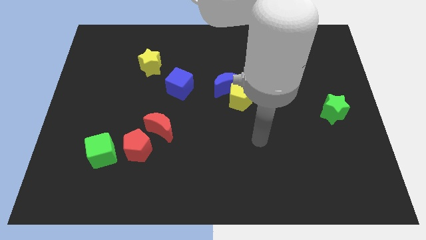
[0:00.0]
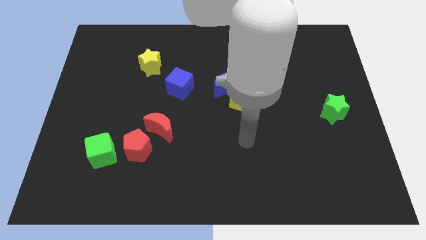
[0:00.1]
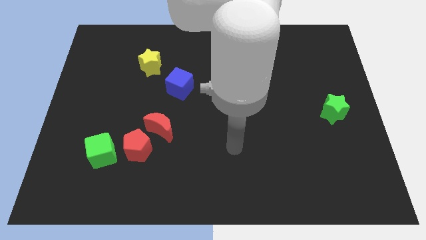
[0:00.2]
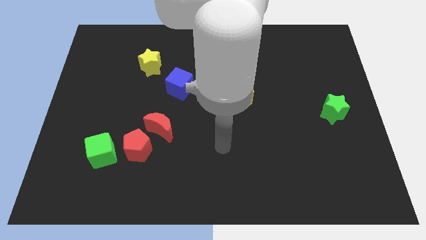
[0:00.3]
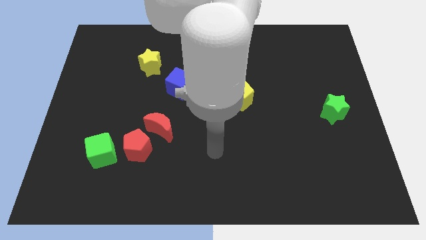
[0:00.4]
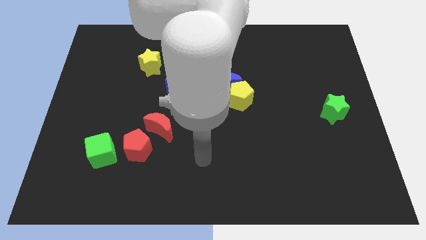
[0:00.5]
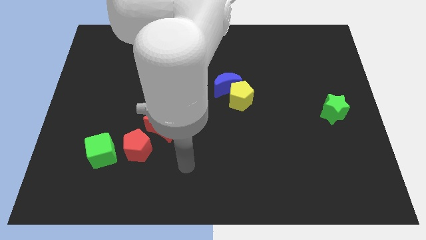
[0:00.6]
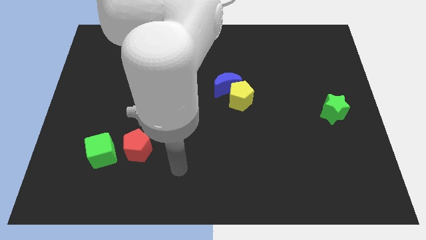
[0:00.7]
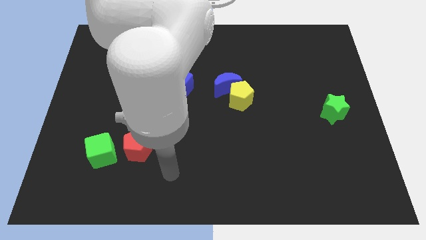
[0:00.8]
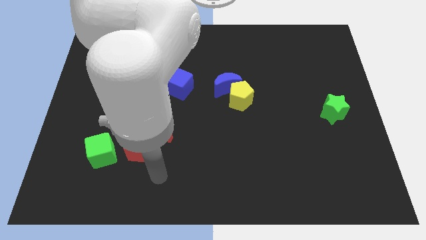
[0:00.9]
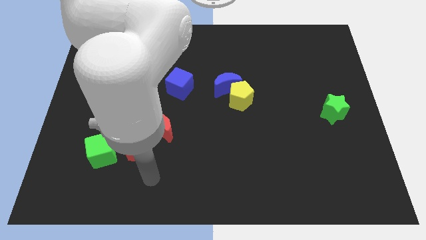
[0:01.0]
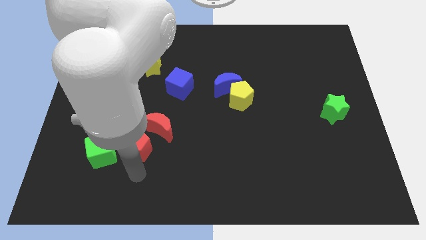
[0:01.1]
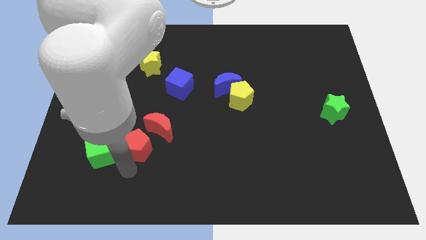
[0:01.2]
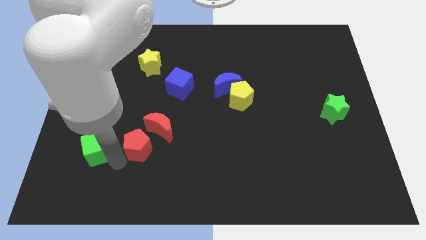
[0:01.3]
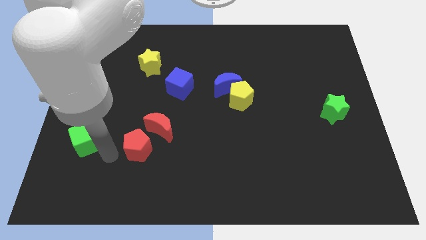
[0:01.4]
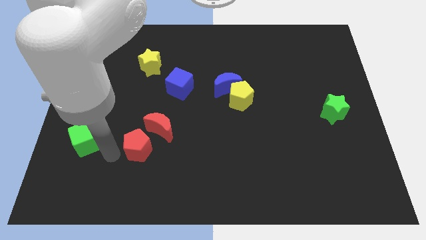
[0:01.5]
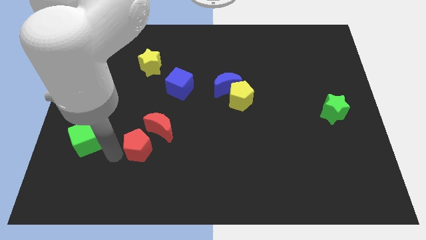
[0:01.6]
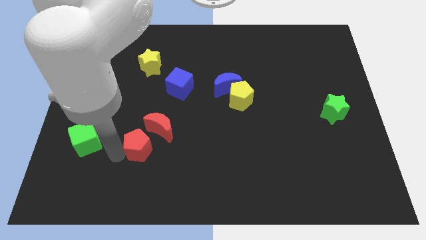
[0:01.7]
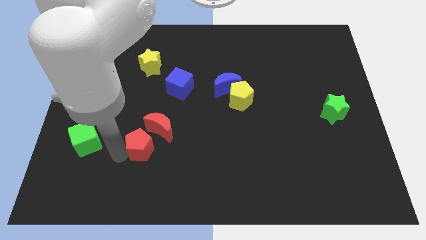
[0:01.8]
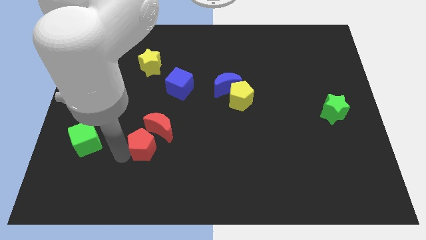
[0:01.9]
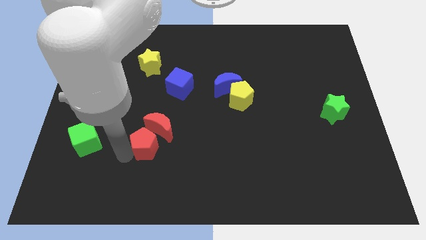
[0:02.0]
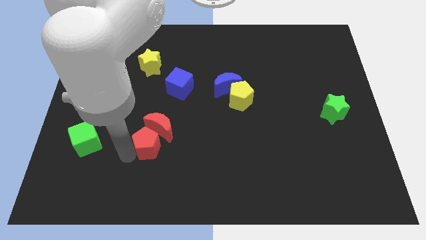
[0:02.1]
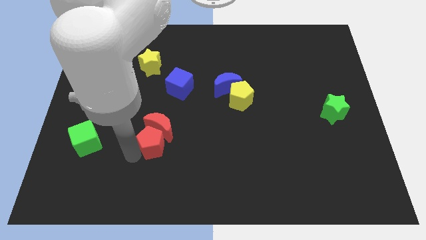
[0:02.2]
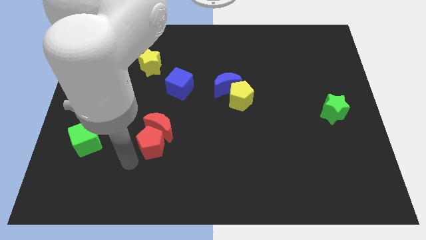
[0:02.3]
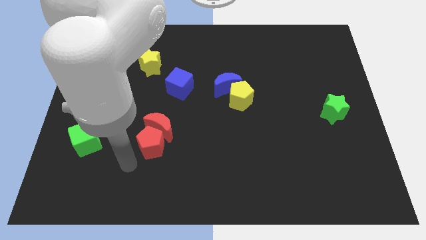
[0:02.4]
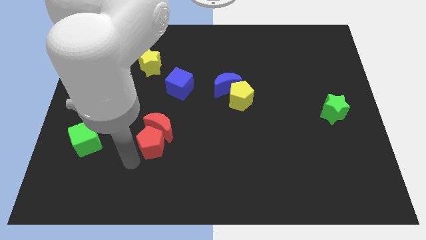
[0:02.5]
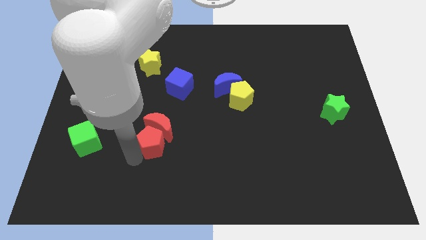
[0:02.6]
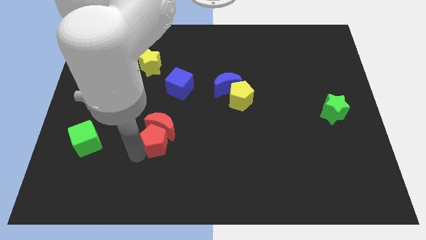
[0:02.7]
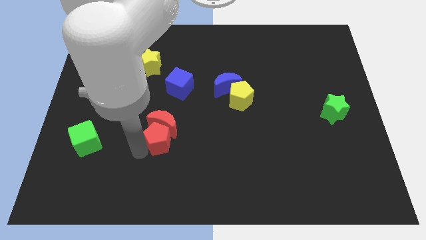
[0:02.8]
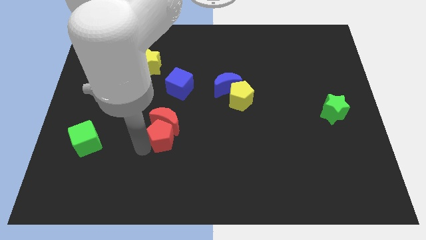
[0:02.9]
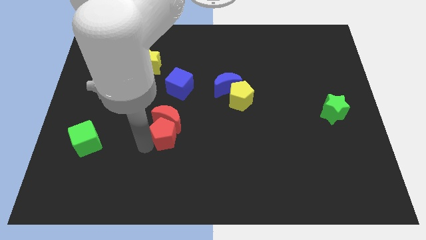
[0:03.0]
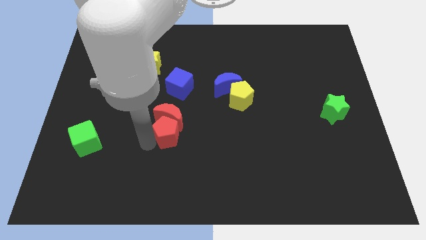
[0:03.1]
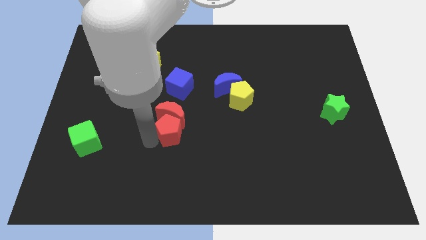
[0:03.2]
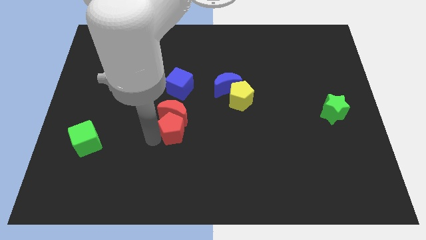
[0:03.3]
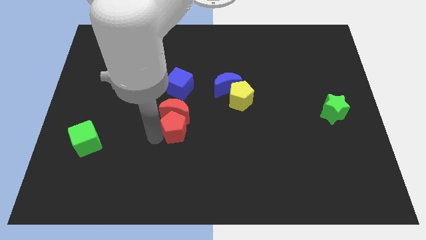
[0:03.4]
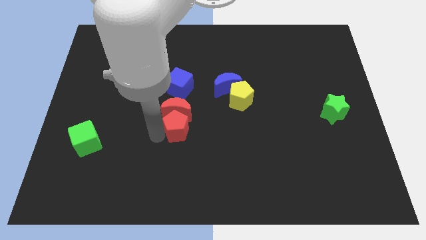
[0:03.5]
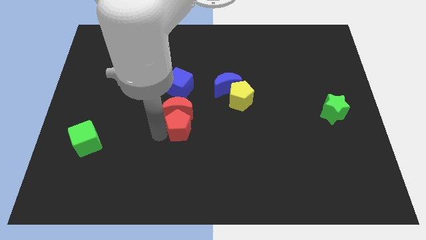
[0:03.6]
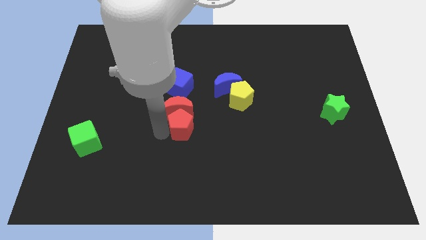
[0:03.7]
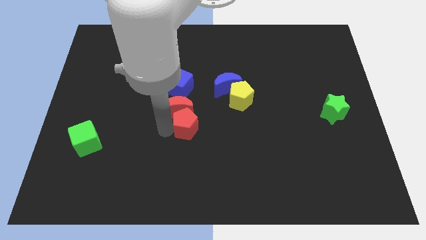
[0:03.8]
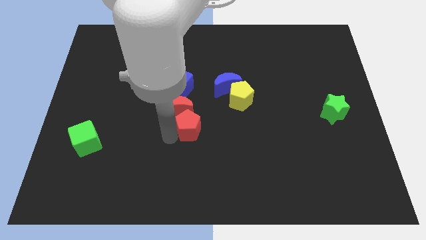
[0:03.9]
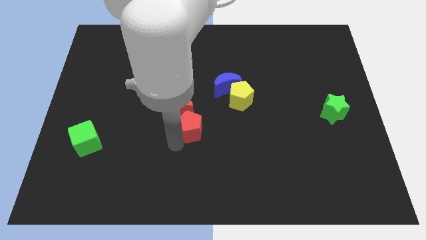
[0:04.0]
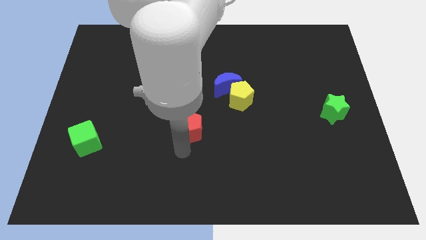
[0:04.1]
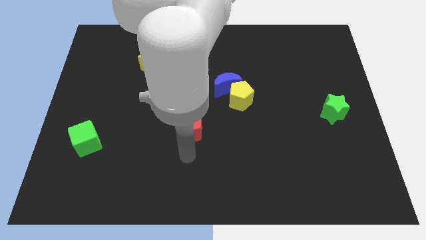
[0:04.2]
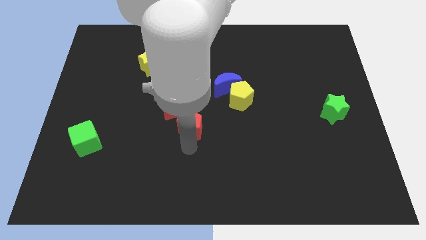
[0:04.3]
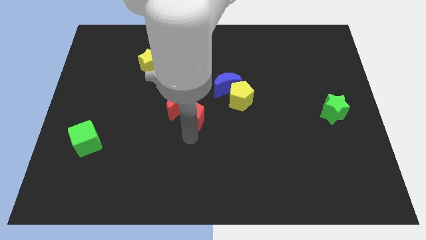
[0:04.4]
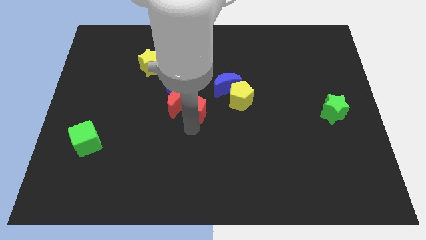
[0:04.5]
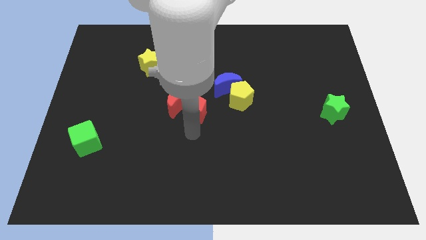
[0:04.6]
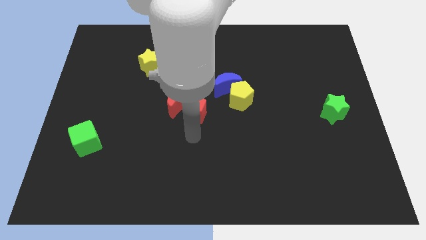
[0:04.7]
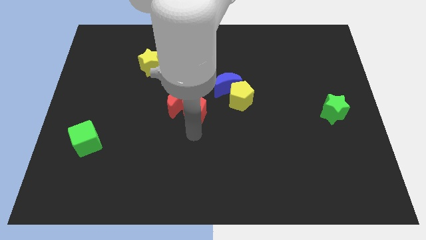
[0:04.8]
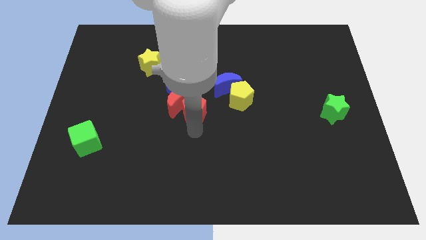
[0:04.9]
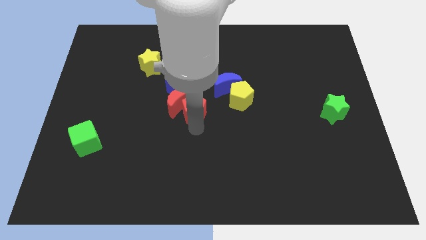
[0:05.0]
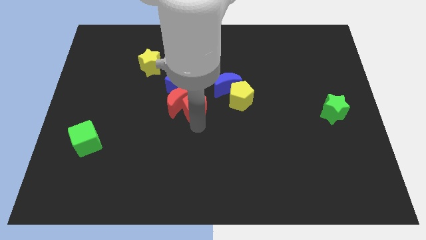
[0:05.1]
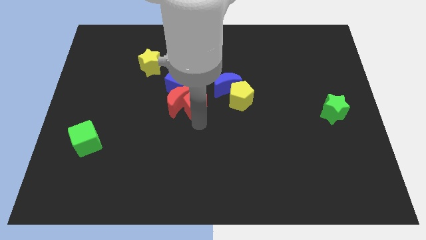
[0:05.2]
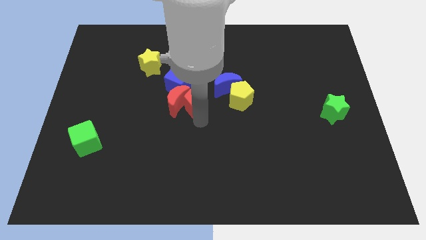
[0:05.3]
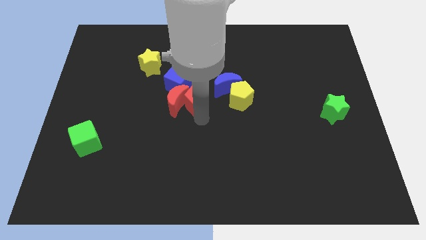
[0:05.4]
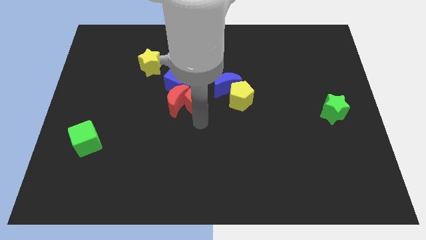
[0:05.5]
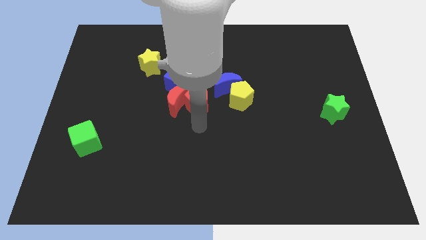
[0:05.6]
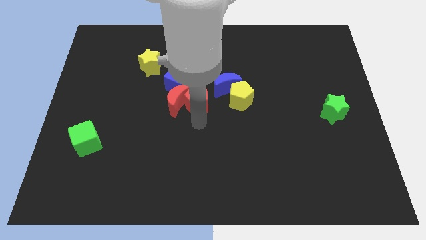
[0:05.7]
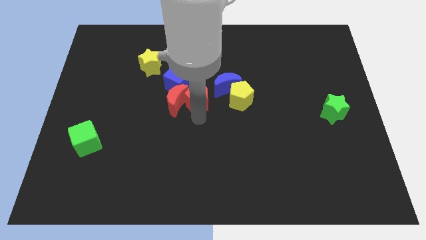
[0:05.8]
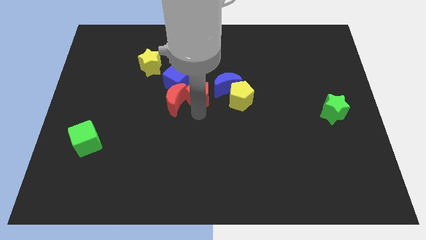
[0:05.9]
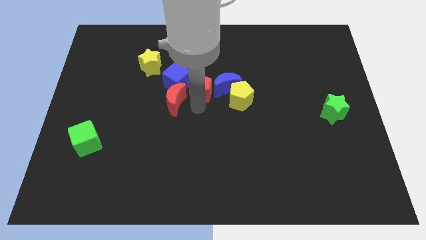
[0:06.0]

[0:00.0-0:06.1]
push the red pentagon upwards and to the right

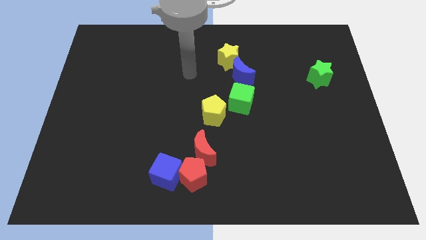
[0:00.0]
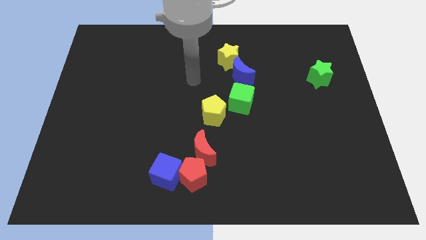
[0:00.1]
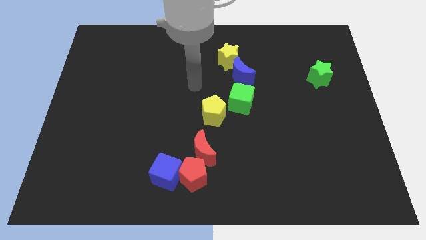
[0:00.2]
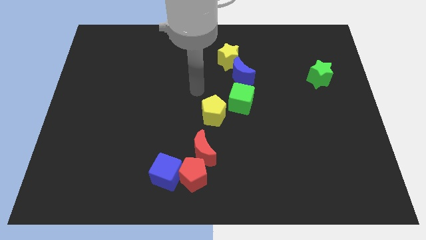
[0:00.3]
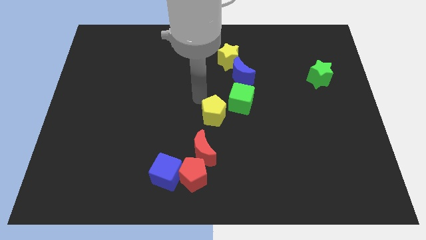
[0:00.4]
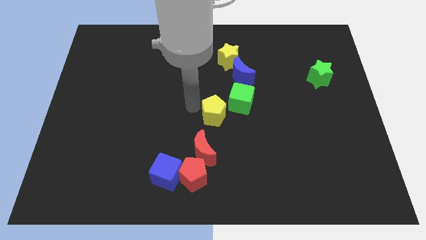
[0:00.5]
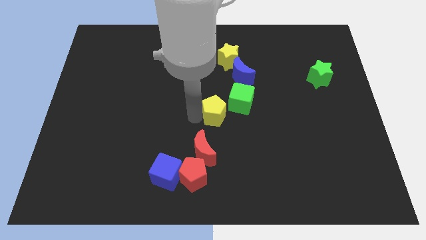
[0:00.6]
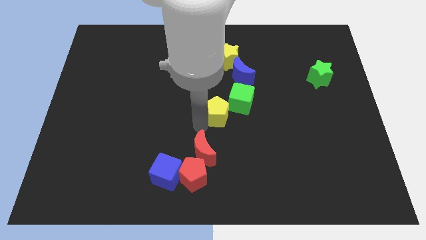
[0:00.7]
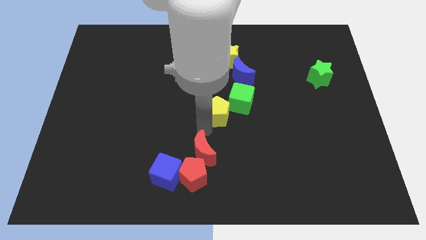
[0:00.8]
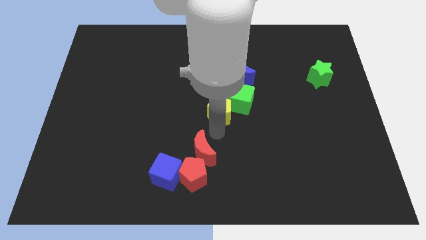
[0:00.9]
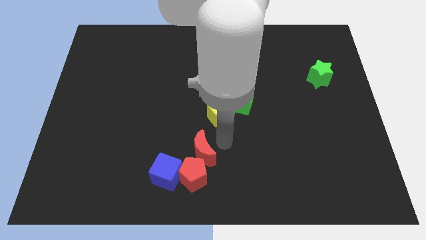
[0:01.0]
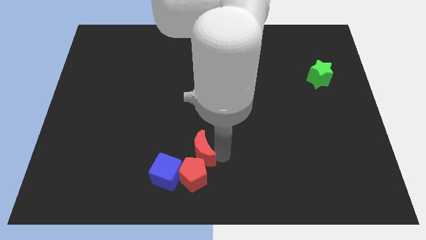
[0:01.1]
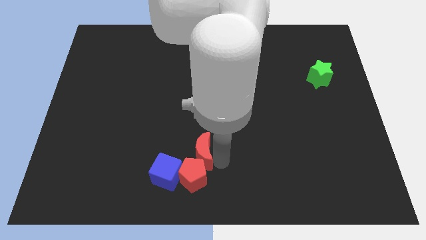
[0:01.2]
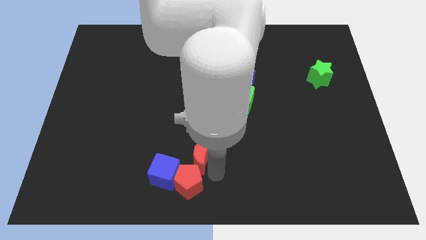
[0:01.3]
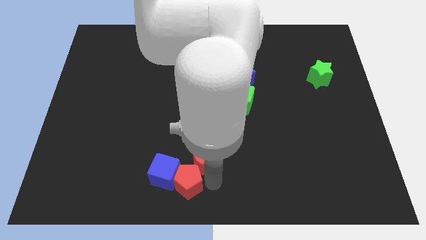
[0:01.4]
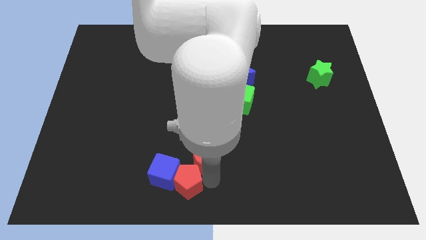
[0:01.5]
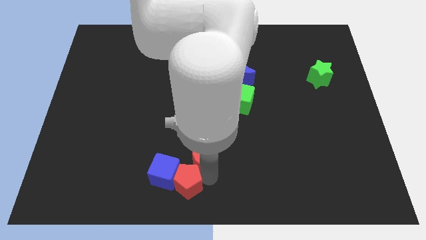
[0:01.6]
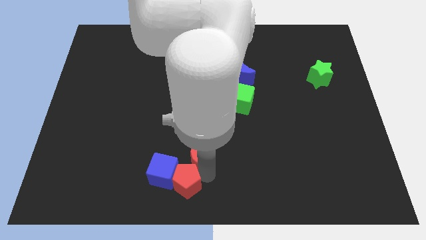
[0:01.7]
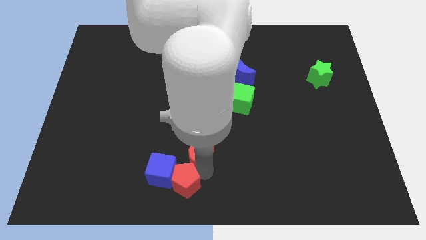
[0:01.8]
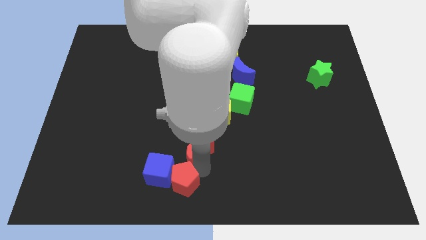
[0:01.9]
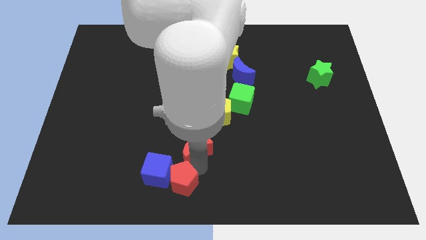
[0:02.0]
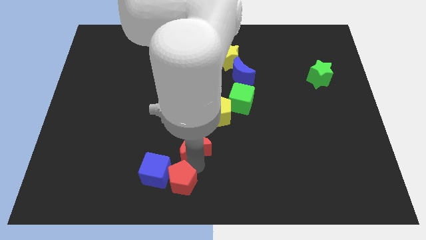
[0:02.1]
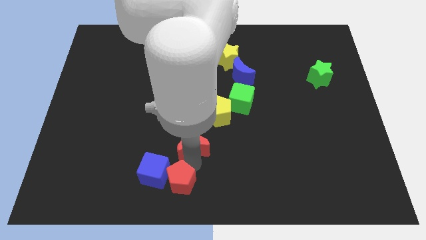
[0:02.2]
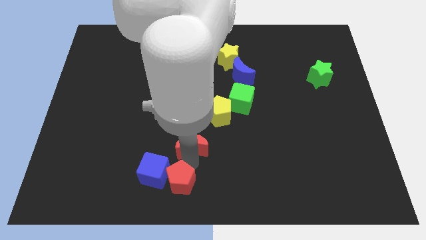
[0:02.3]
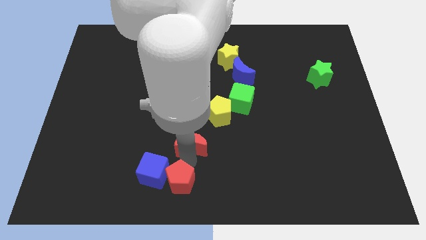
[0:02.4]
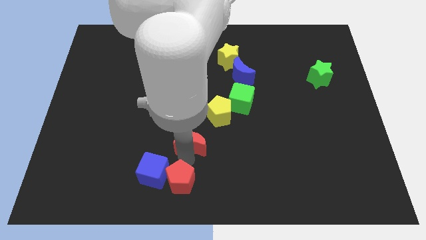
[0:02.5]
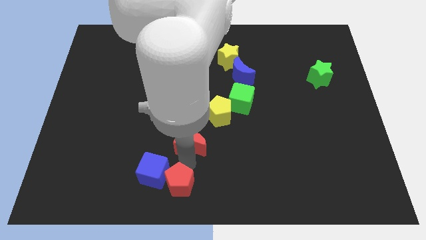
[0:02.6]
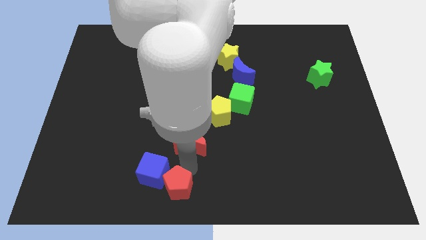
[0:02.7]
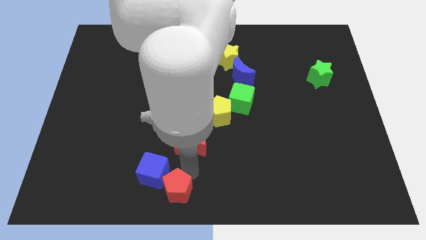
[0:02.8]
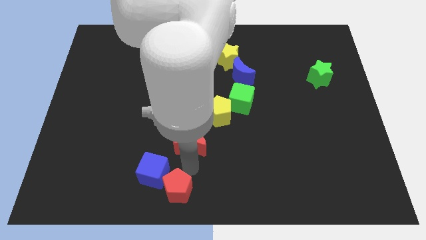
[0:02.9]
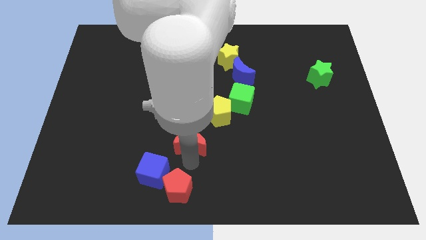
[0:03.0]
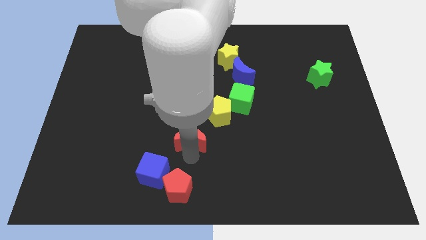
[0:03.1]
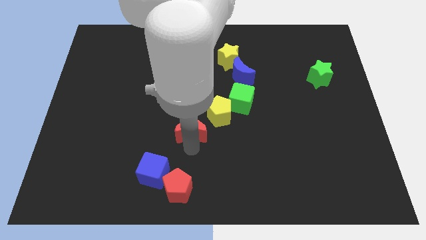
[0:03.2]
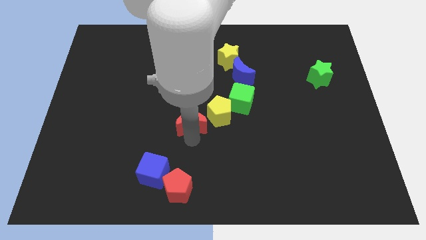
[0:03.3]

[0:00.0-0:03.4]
slide the red moon somewhat up
